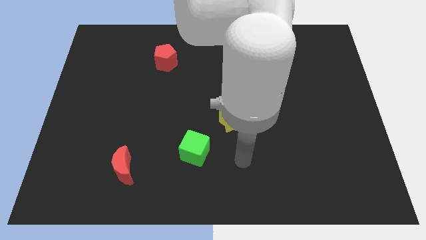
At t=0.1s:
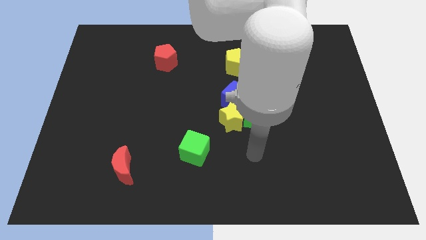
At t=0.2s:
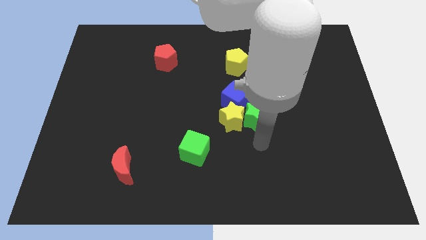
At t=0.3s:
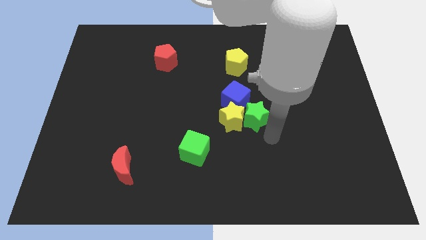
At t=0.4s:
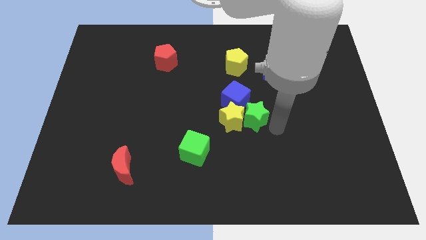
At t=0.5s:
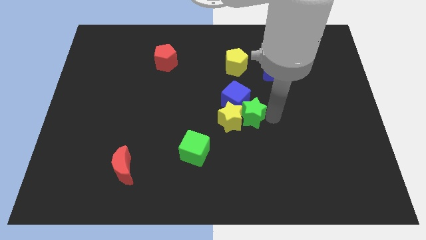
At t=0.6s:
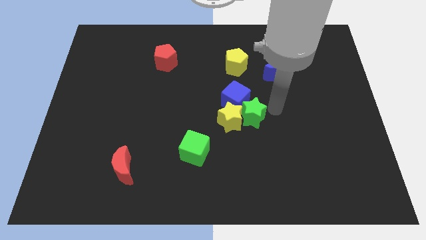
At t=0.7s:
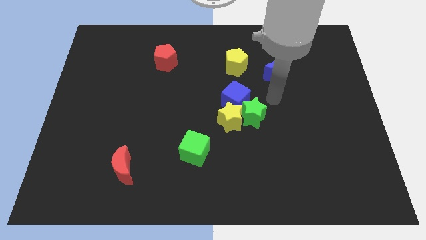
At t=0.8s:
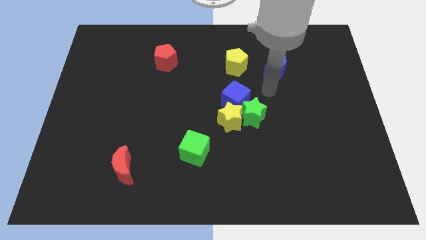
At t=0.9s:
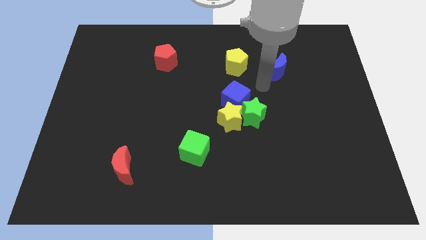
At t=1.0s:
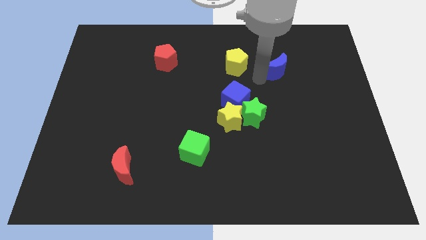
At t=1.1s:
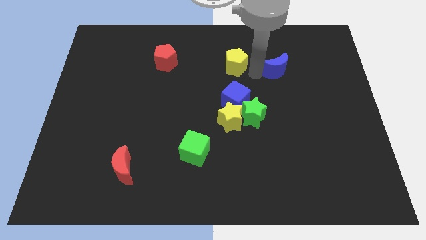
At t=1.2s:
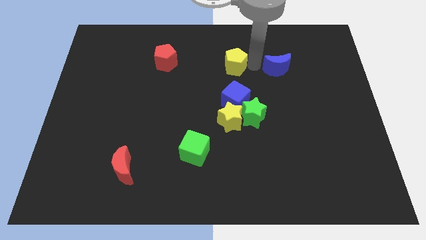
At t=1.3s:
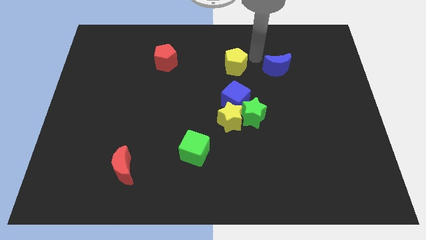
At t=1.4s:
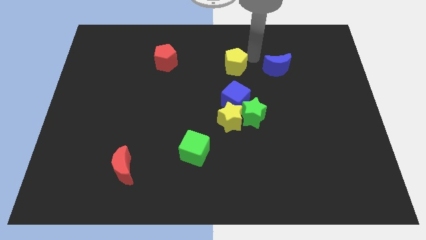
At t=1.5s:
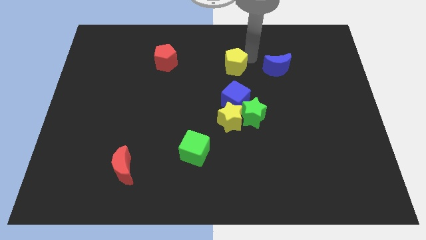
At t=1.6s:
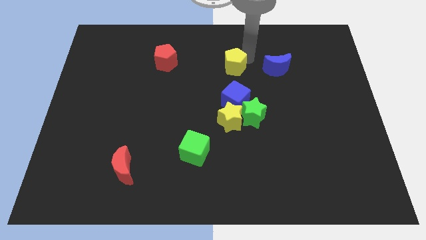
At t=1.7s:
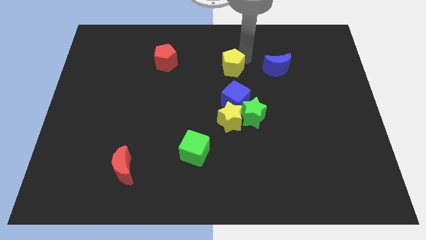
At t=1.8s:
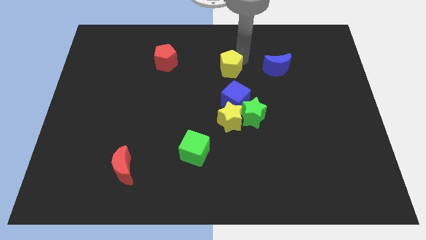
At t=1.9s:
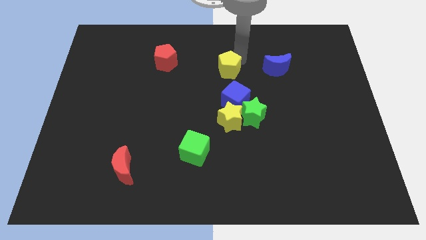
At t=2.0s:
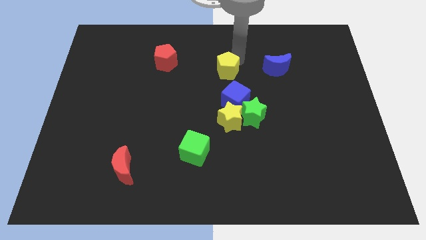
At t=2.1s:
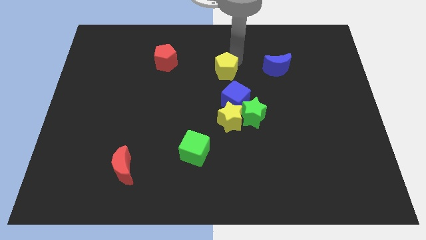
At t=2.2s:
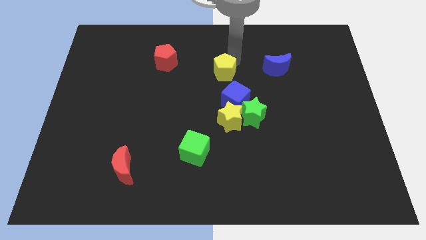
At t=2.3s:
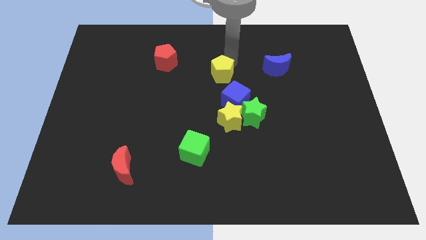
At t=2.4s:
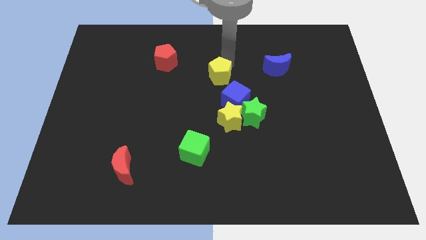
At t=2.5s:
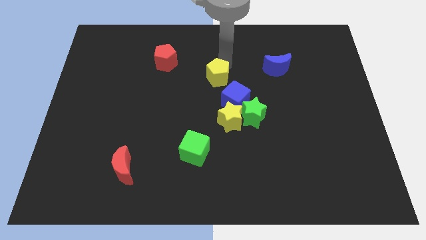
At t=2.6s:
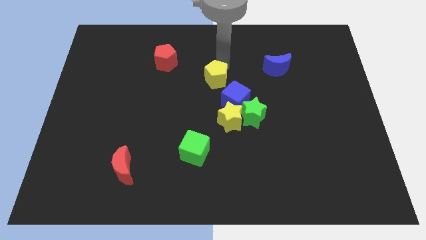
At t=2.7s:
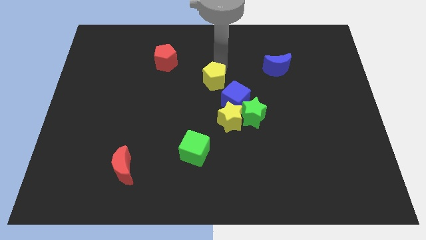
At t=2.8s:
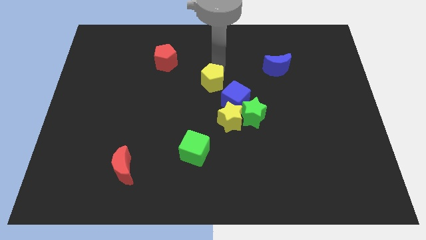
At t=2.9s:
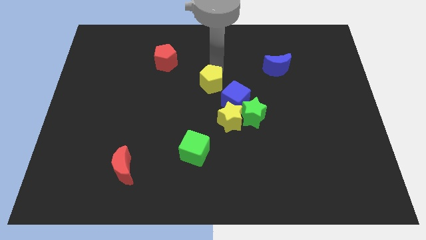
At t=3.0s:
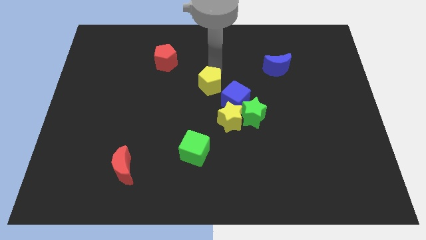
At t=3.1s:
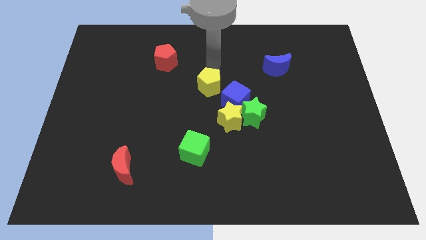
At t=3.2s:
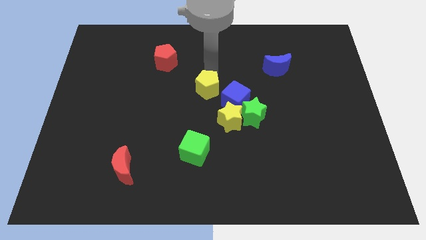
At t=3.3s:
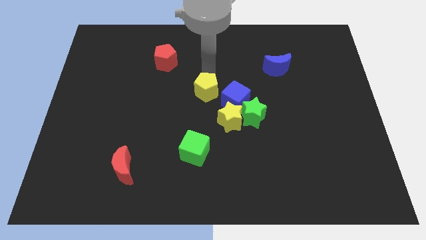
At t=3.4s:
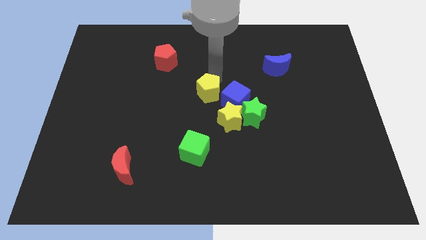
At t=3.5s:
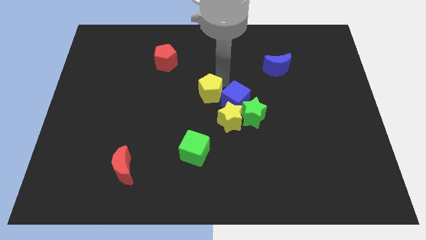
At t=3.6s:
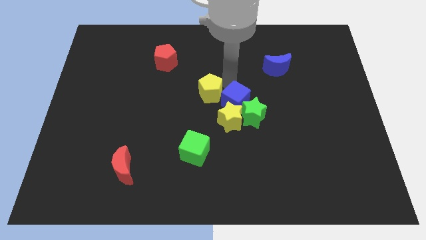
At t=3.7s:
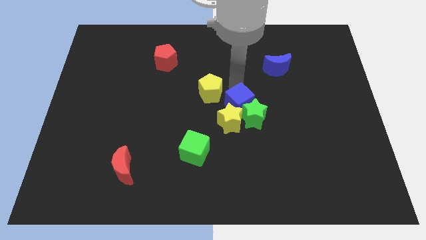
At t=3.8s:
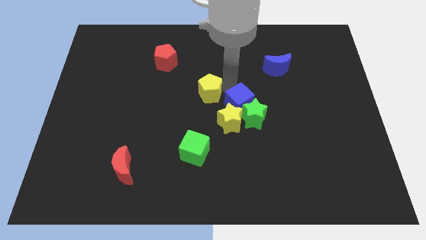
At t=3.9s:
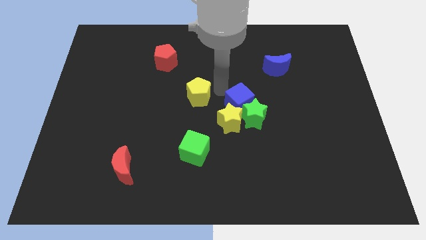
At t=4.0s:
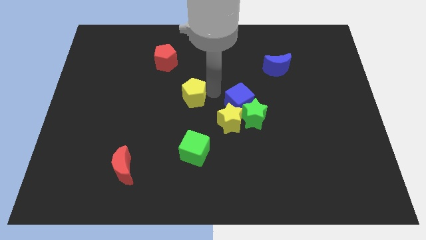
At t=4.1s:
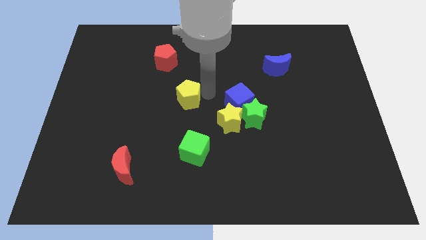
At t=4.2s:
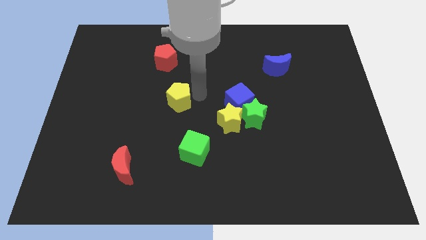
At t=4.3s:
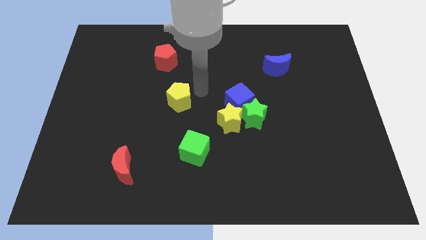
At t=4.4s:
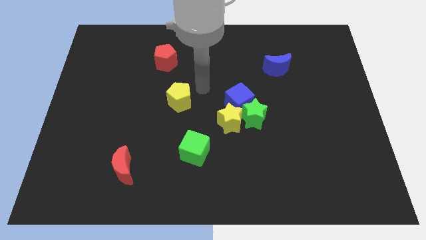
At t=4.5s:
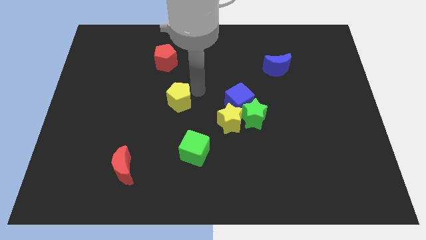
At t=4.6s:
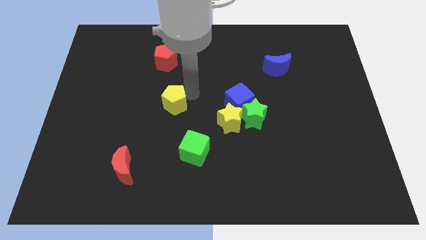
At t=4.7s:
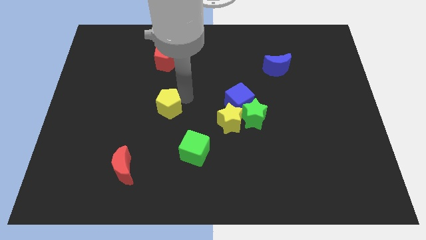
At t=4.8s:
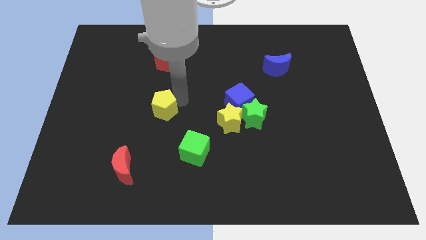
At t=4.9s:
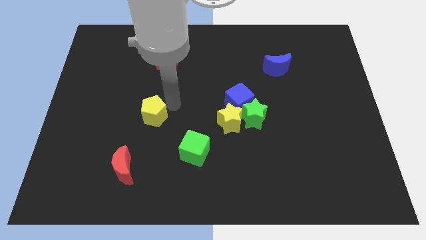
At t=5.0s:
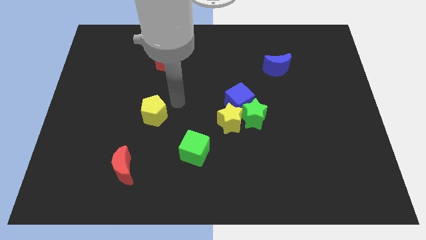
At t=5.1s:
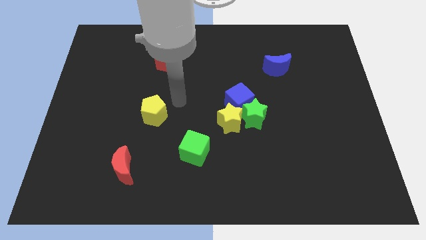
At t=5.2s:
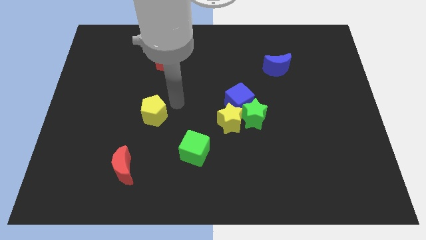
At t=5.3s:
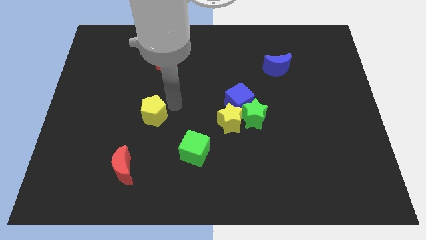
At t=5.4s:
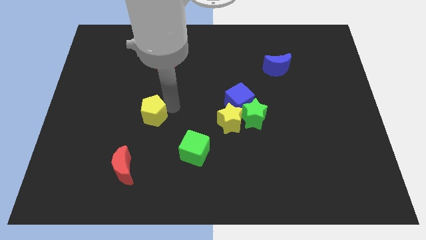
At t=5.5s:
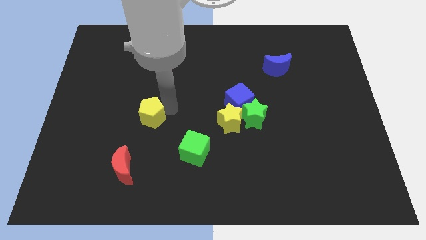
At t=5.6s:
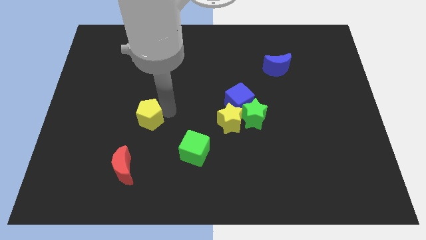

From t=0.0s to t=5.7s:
push the yellow pentagon to the top side of the red moon

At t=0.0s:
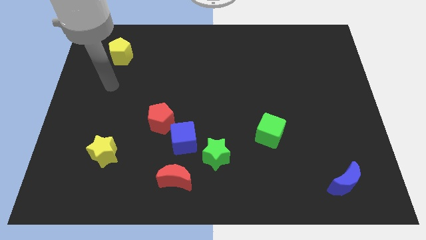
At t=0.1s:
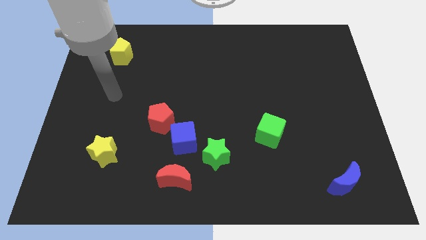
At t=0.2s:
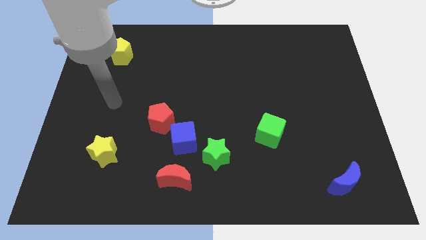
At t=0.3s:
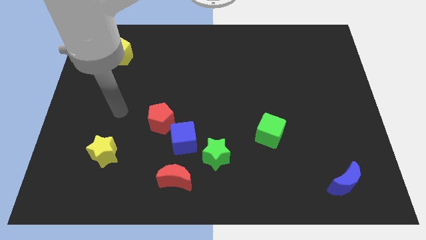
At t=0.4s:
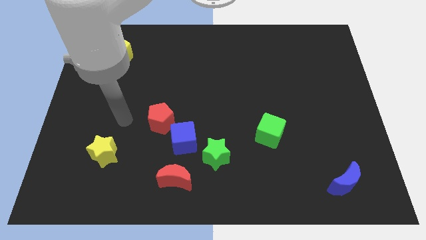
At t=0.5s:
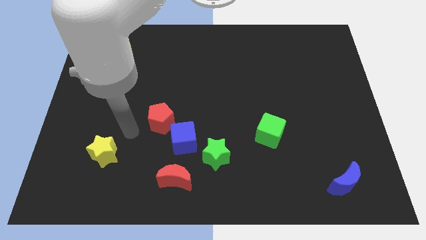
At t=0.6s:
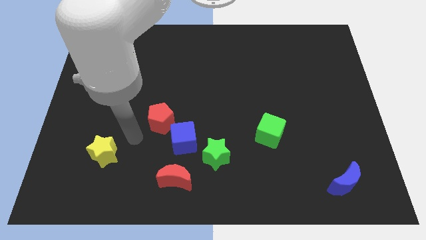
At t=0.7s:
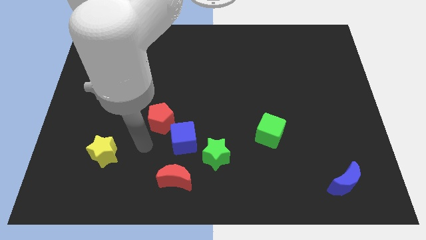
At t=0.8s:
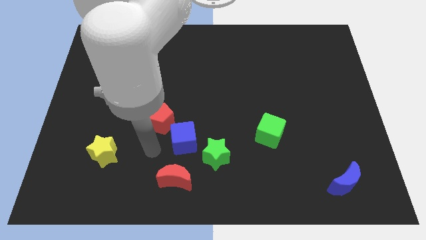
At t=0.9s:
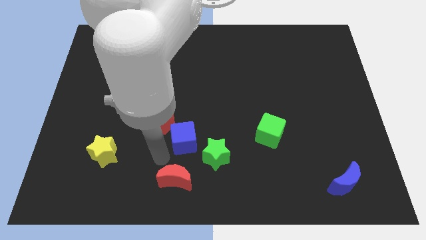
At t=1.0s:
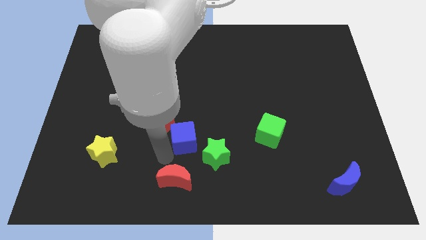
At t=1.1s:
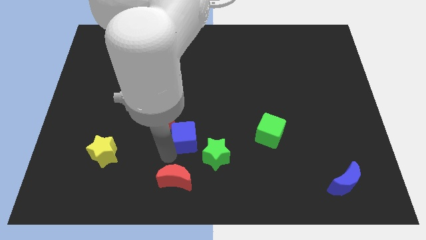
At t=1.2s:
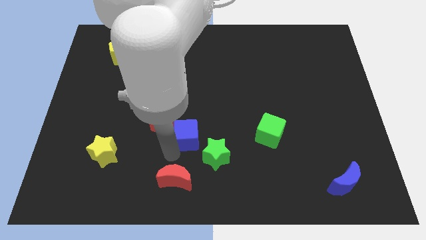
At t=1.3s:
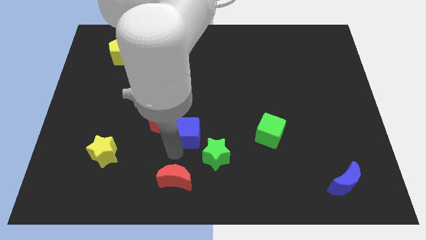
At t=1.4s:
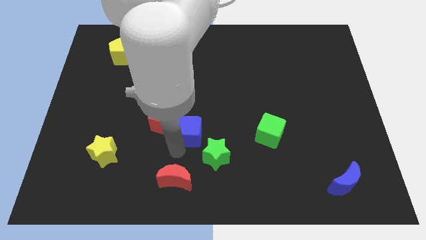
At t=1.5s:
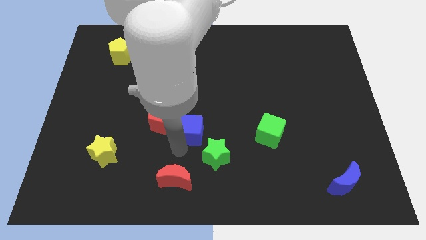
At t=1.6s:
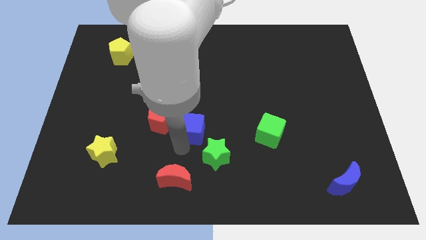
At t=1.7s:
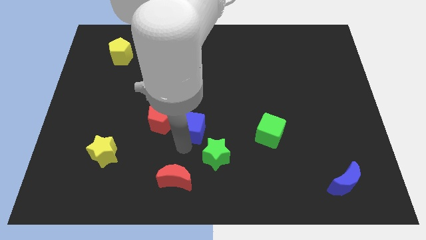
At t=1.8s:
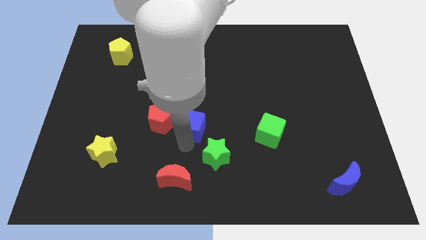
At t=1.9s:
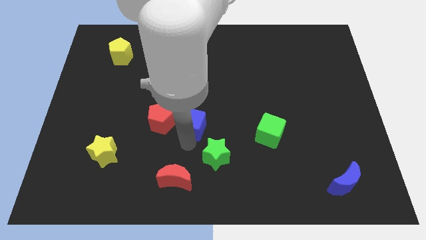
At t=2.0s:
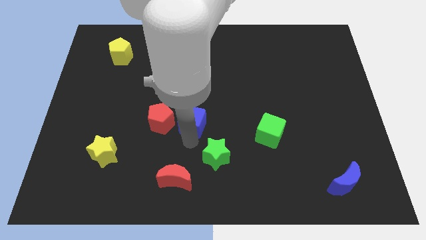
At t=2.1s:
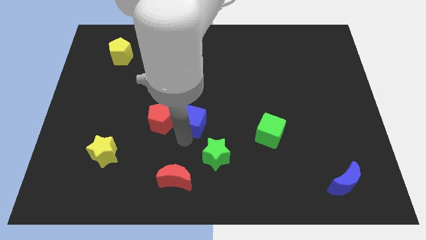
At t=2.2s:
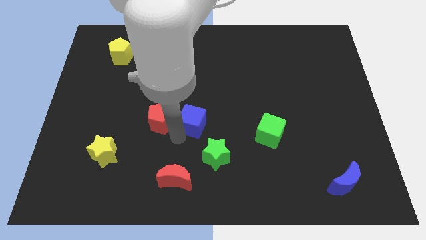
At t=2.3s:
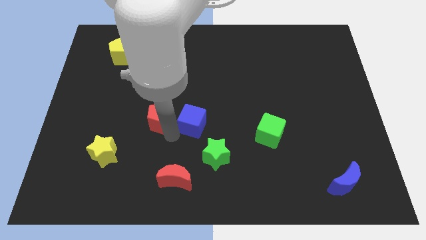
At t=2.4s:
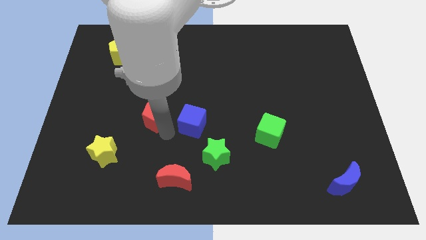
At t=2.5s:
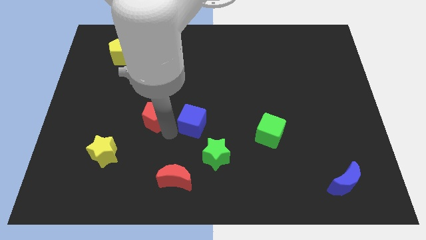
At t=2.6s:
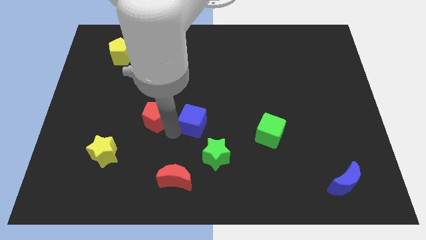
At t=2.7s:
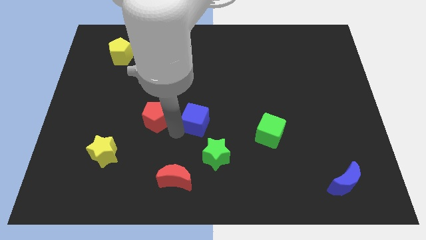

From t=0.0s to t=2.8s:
put the blue cube to the top side of the green star
